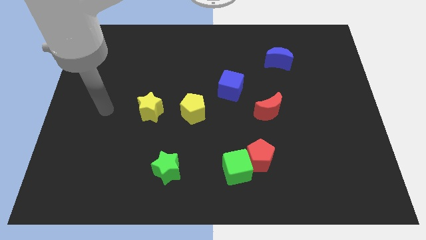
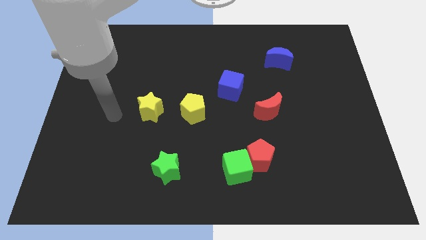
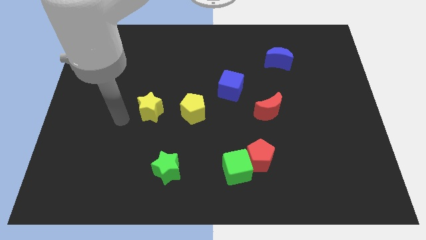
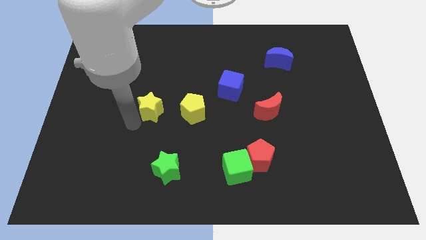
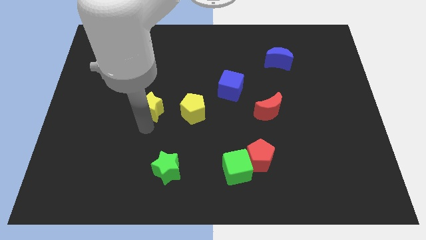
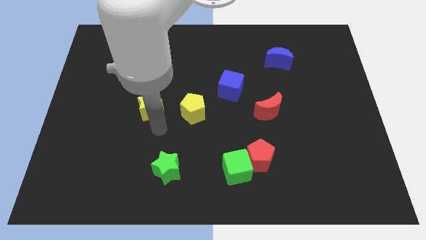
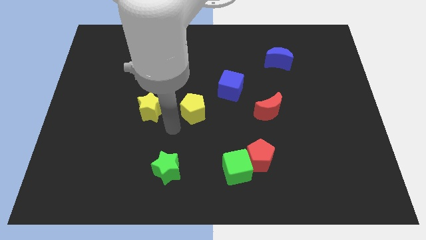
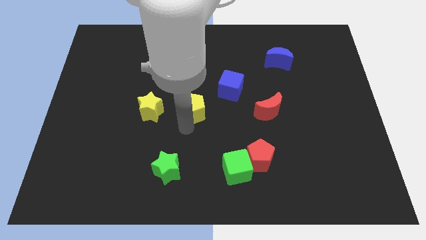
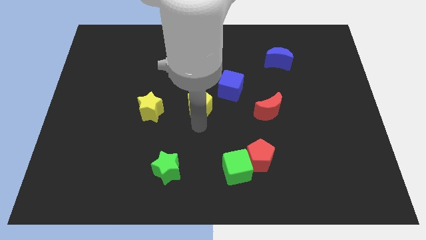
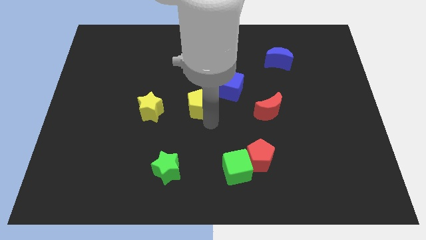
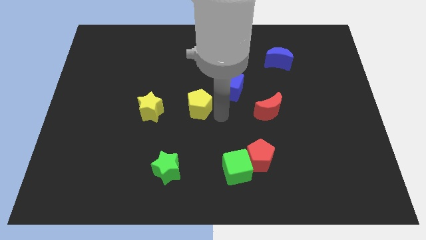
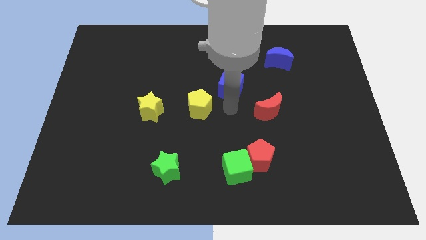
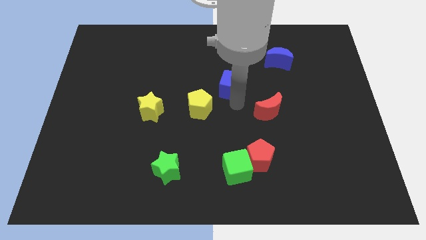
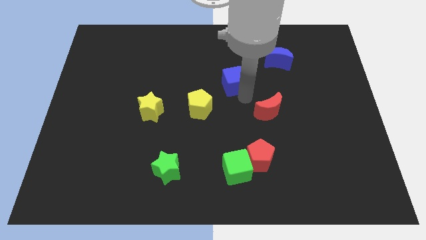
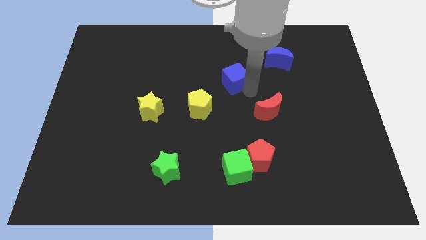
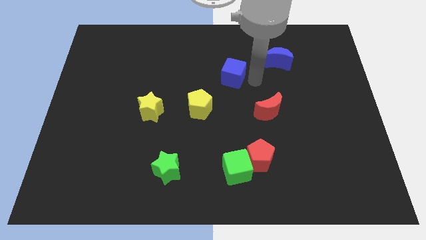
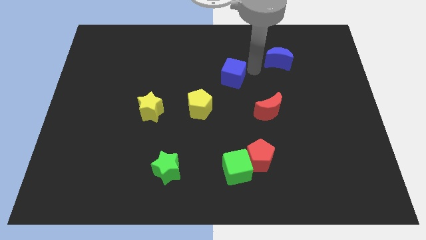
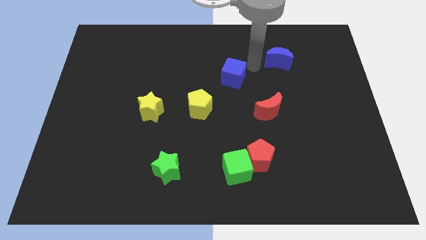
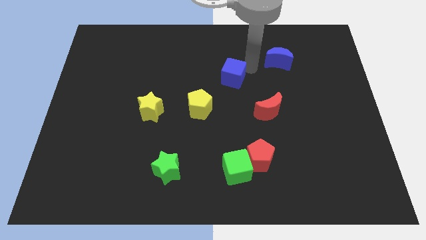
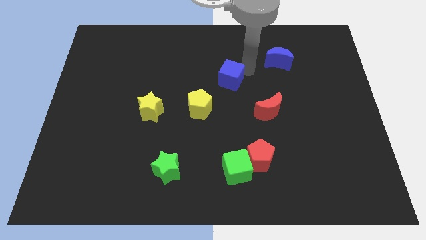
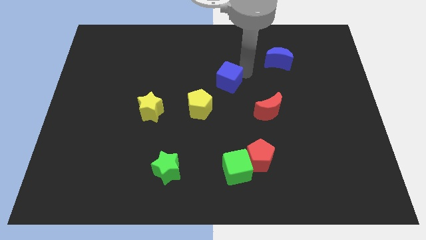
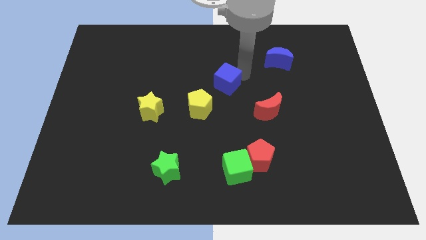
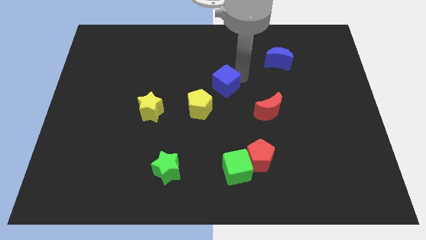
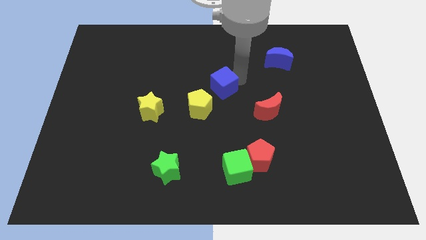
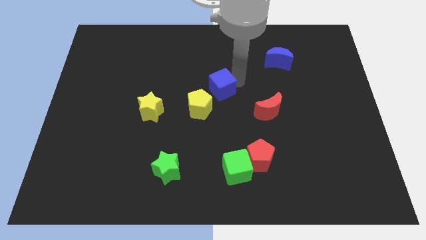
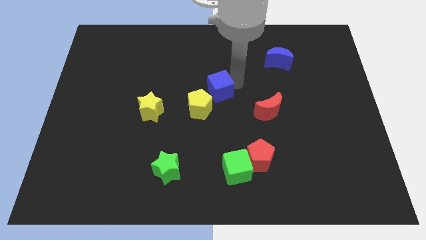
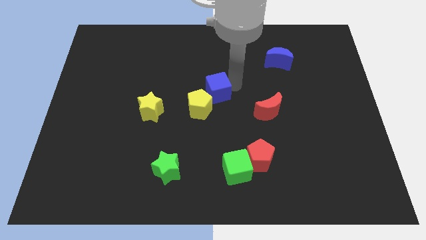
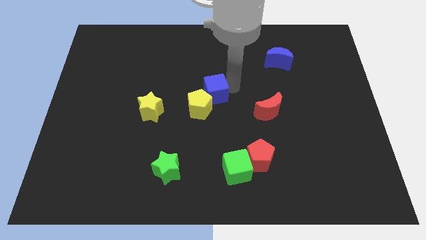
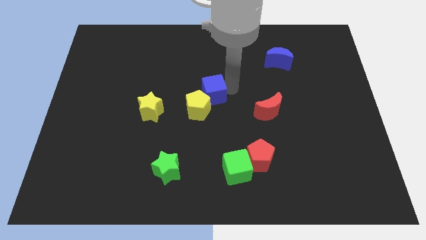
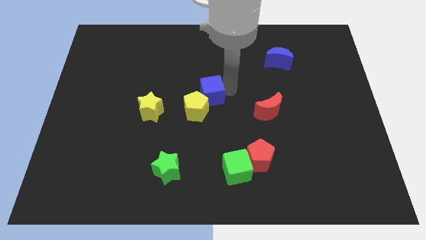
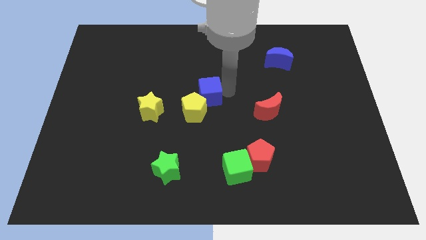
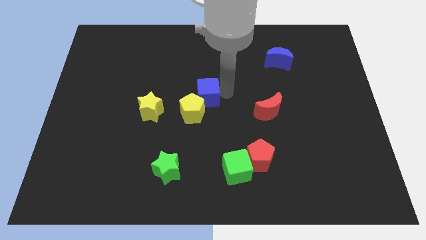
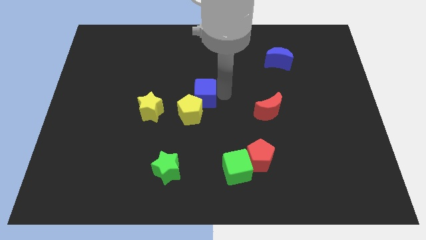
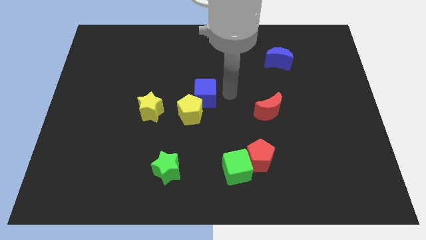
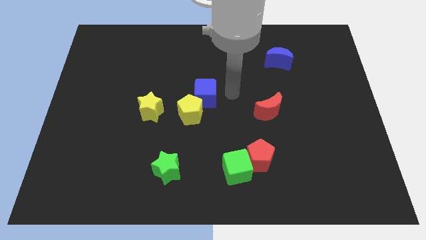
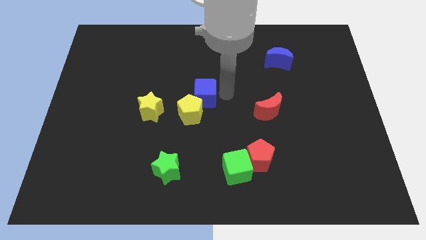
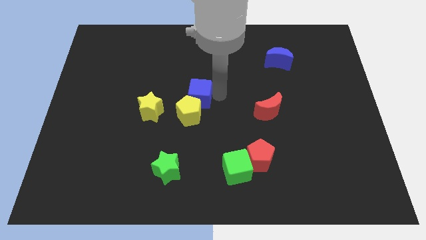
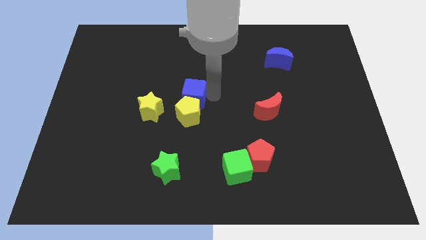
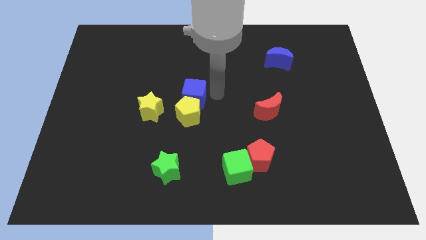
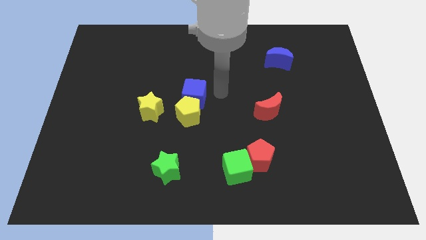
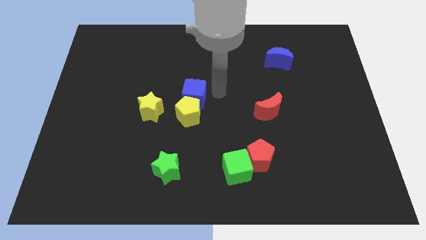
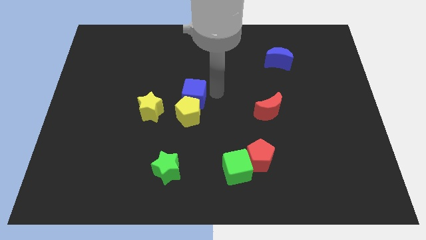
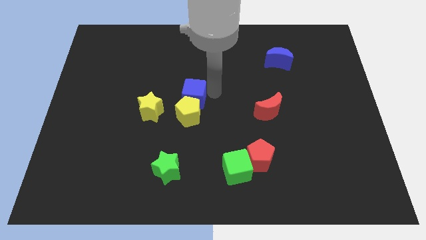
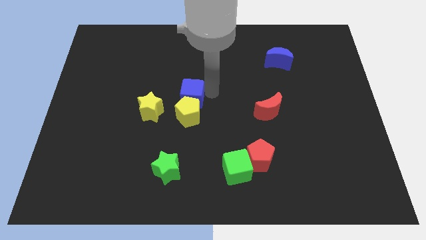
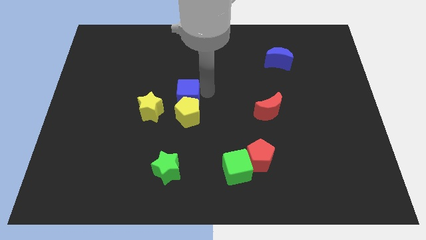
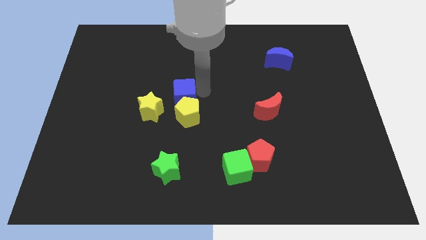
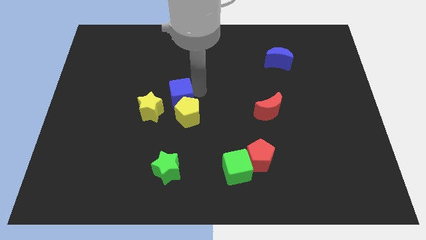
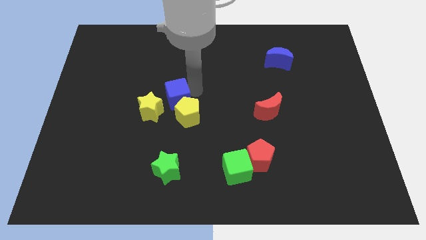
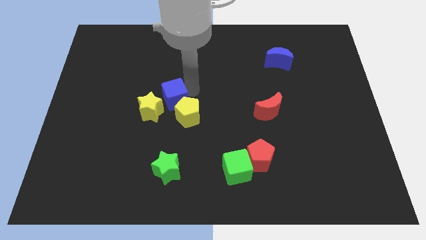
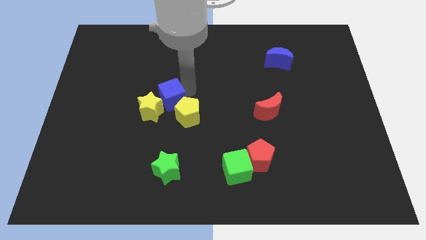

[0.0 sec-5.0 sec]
move the blue cube to the yellow star

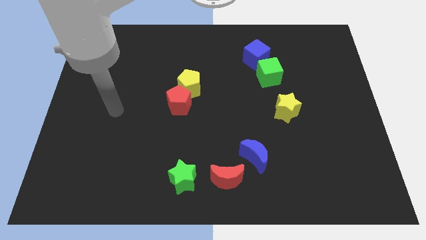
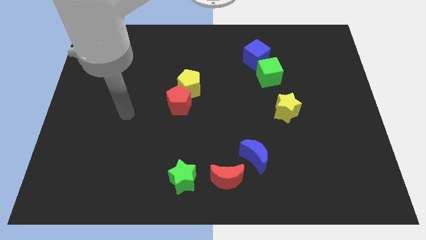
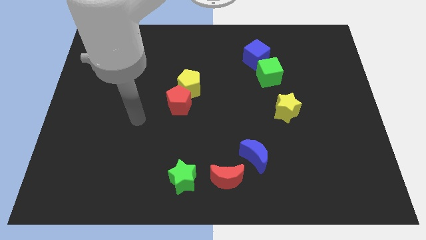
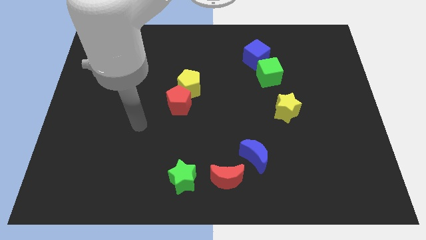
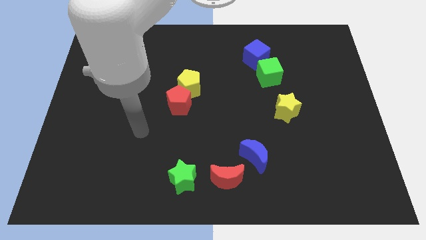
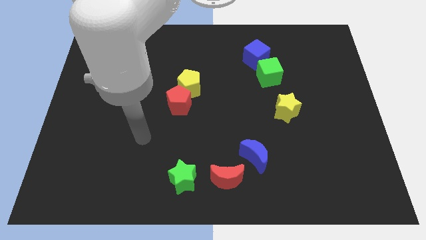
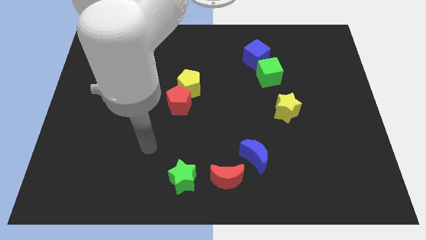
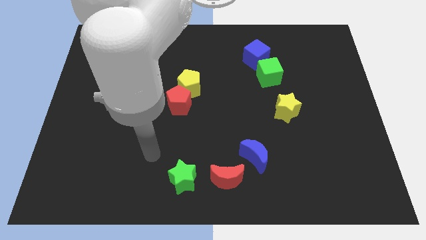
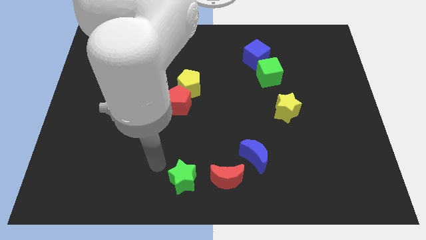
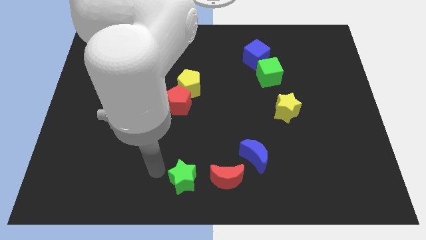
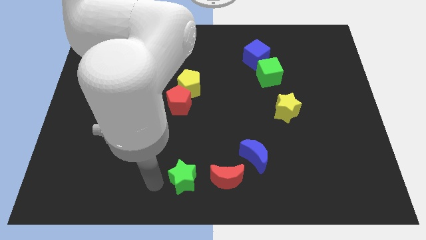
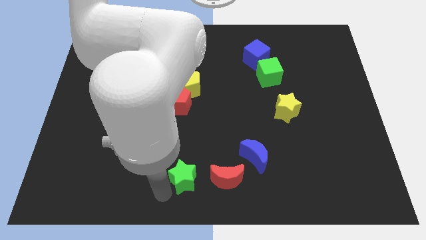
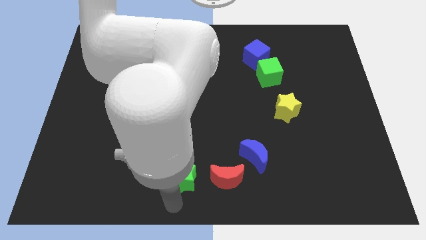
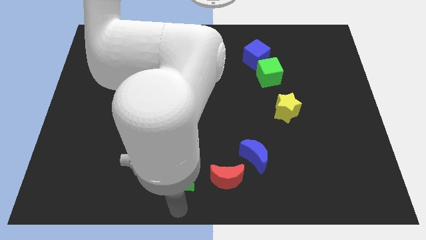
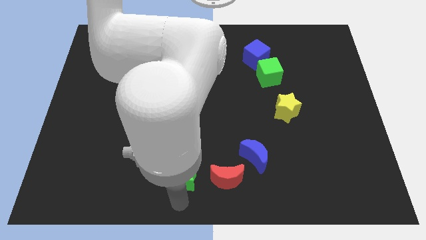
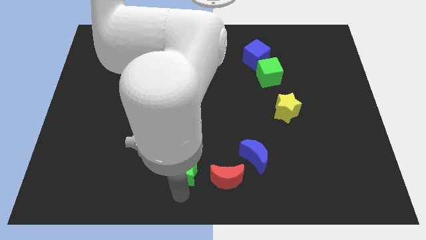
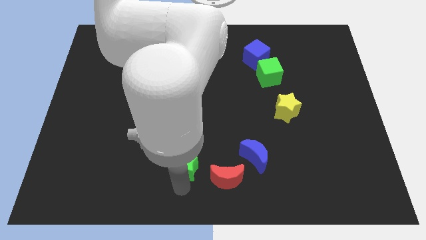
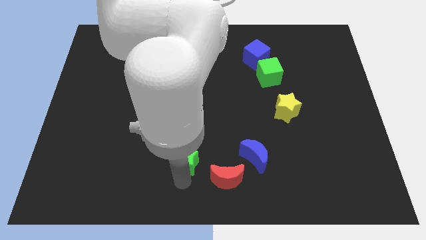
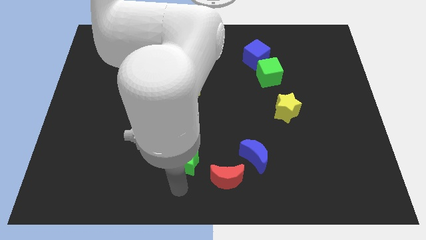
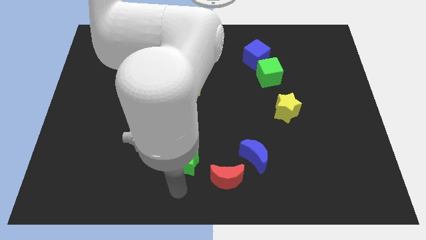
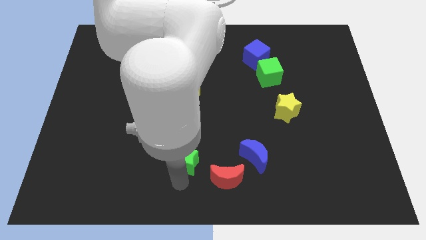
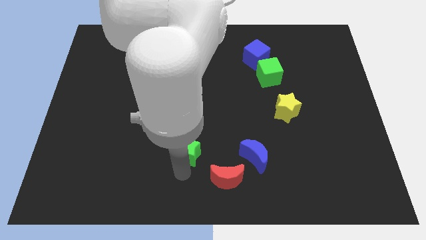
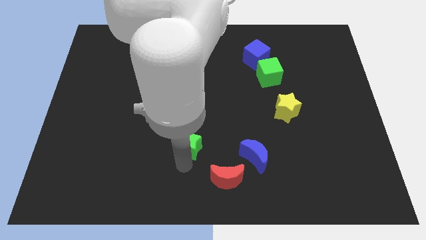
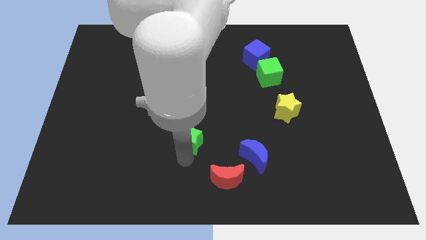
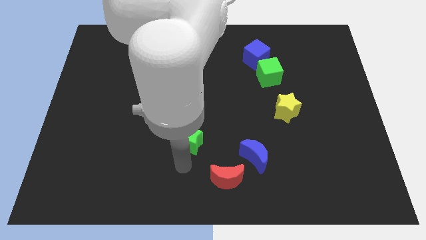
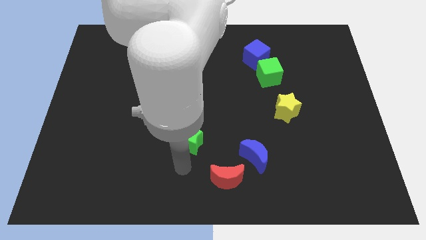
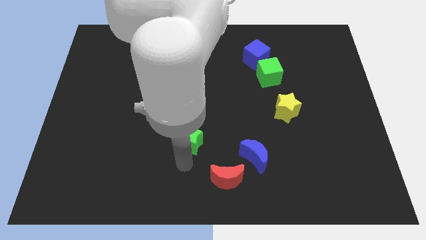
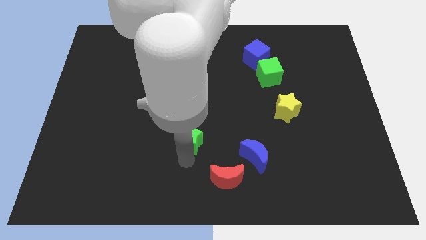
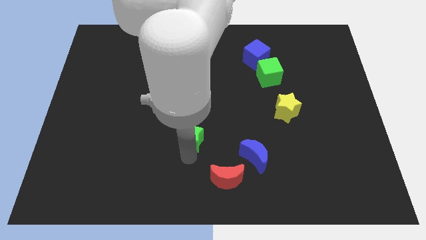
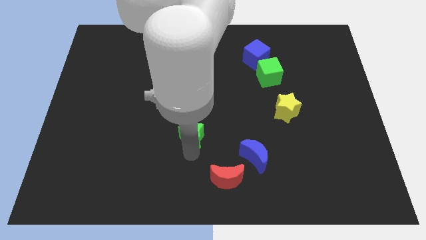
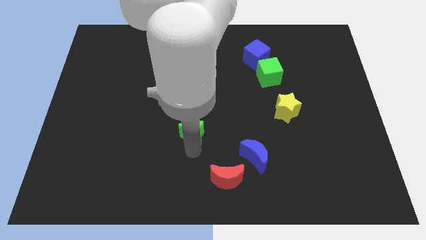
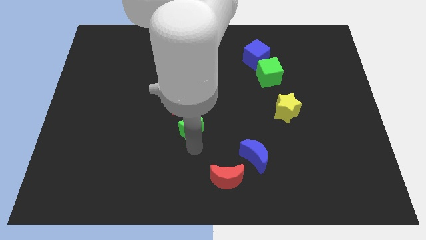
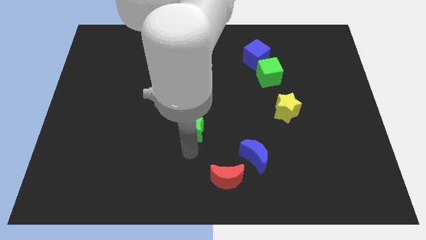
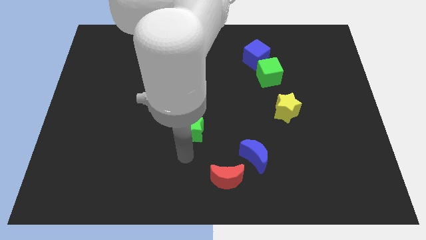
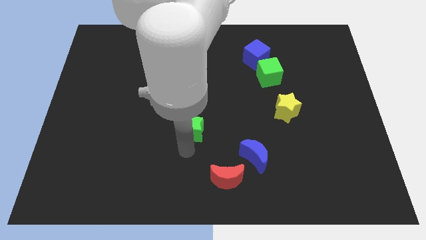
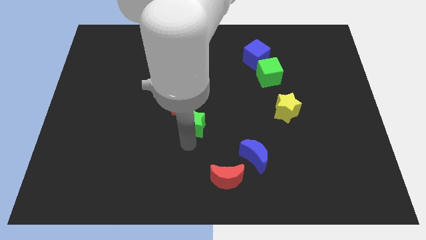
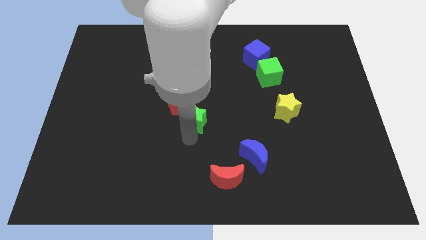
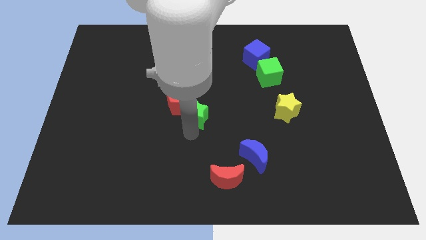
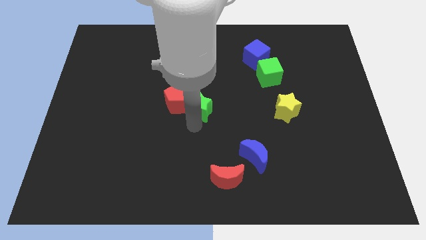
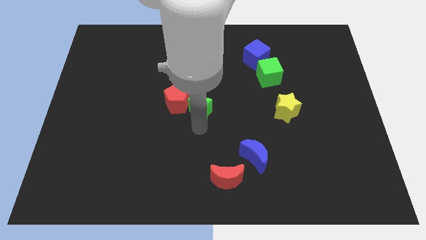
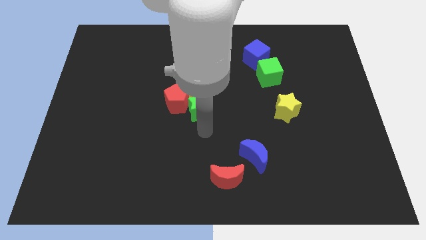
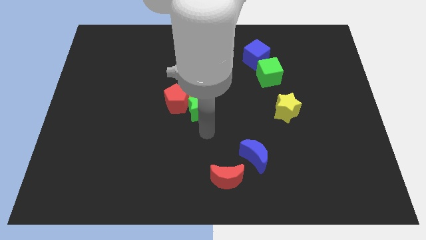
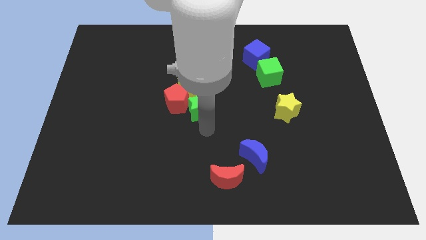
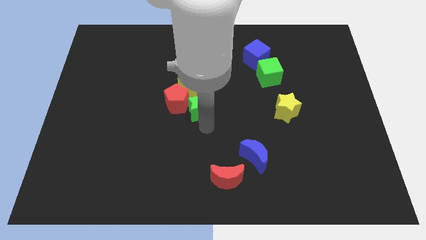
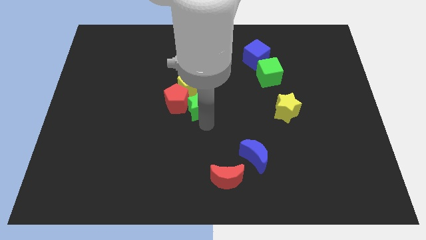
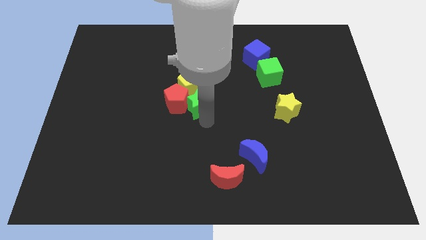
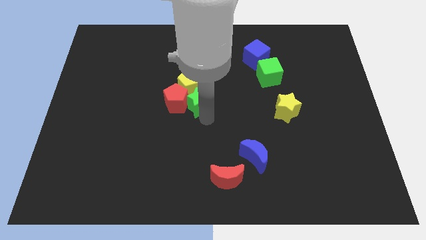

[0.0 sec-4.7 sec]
move the green star to the yellow pentagon
